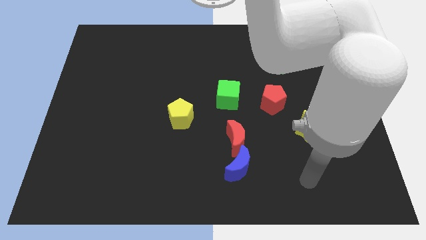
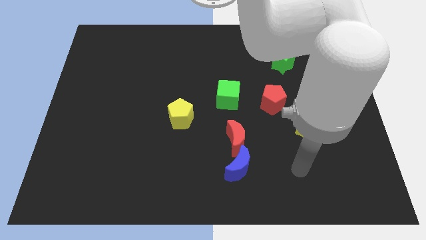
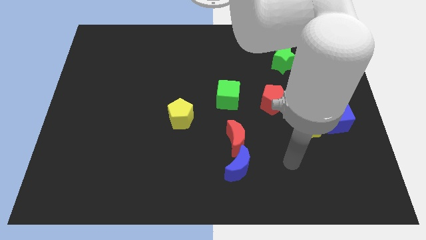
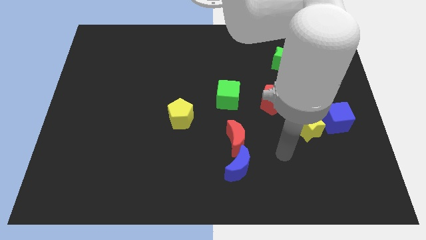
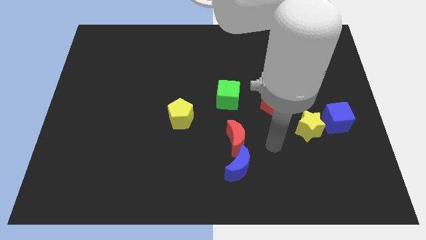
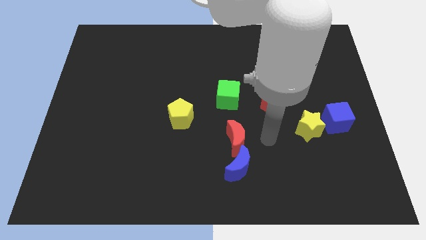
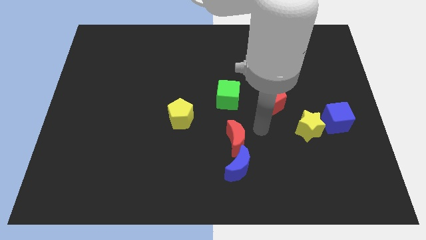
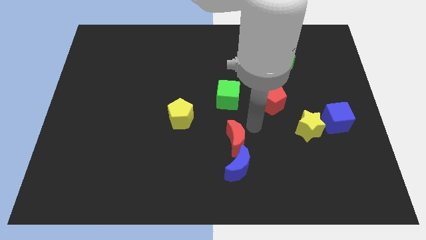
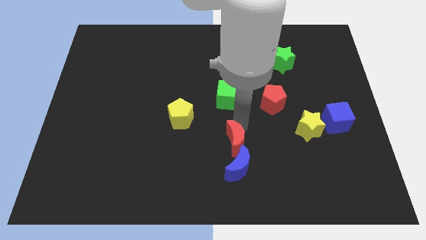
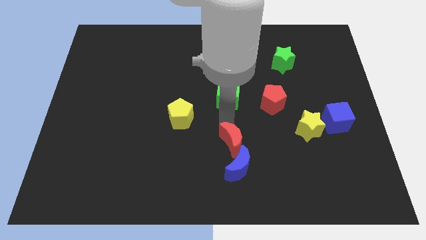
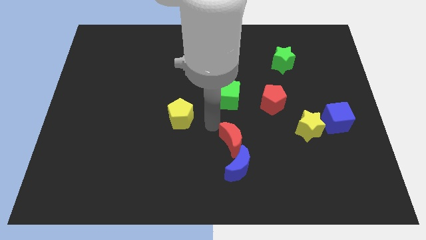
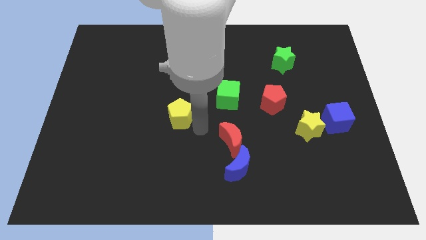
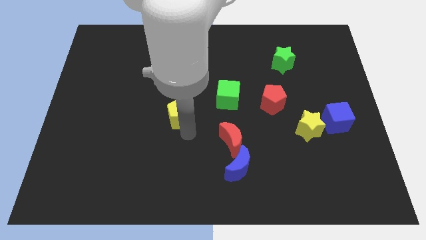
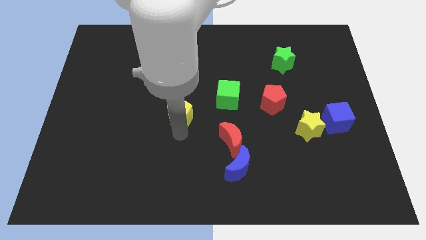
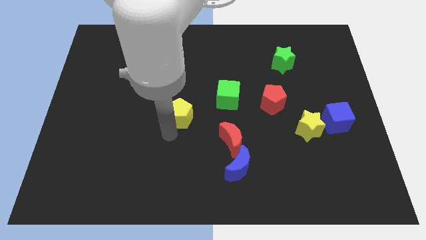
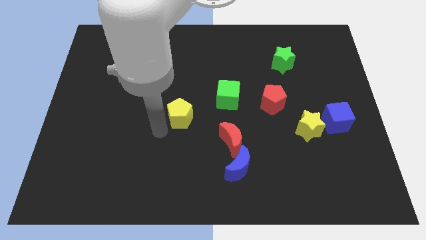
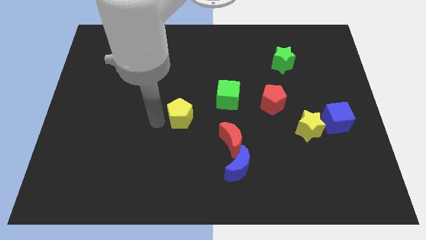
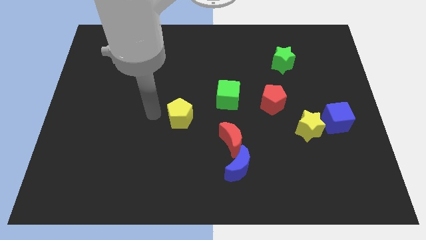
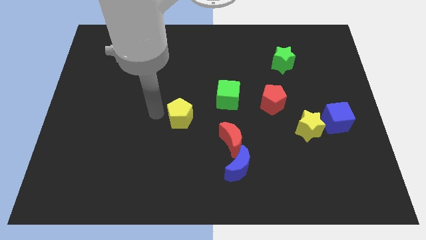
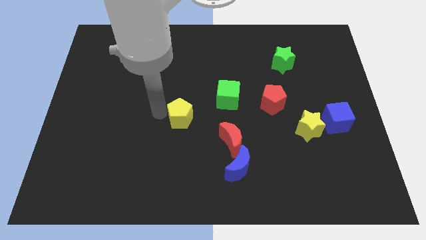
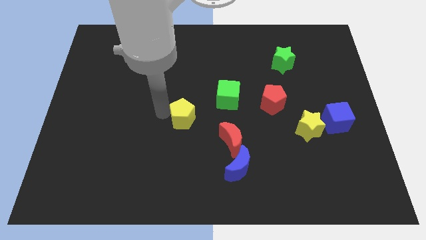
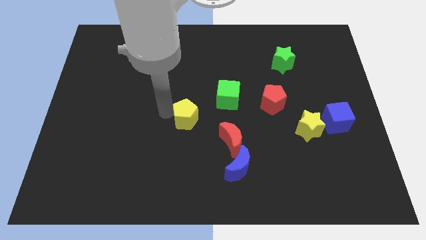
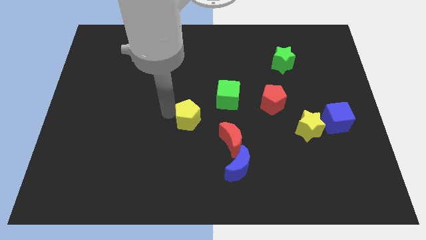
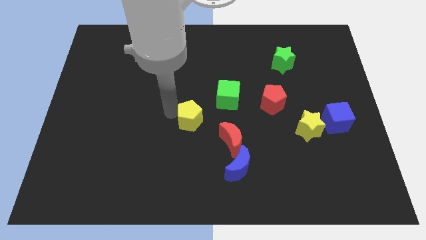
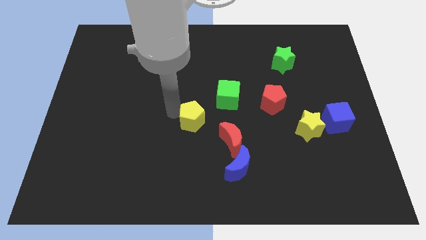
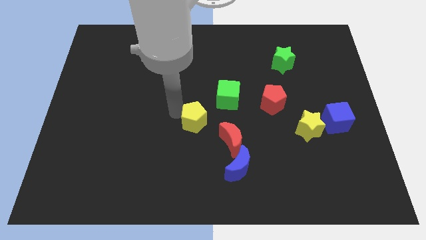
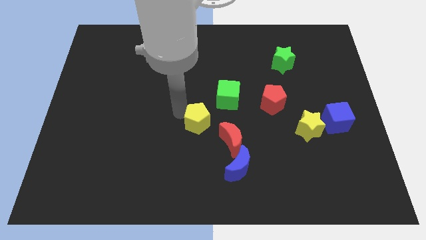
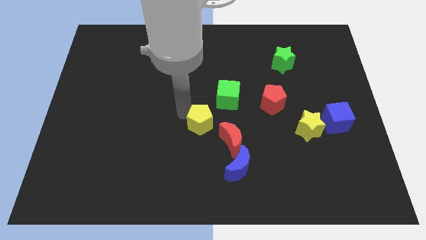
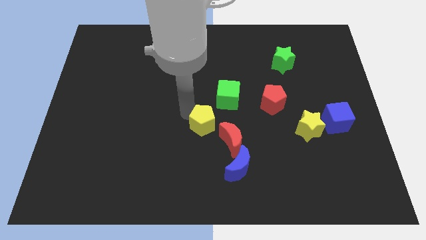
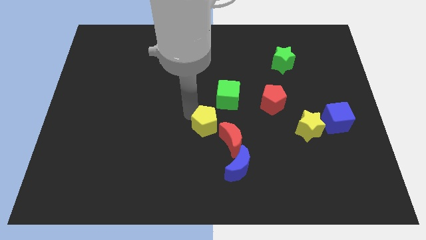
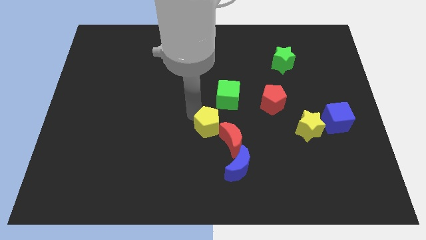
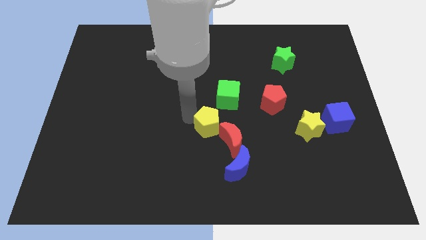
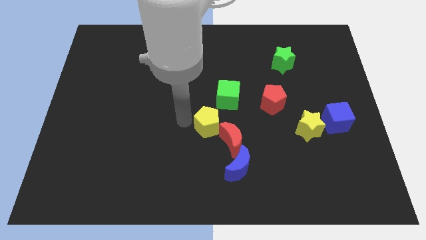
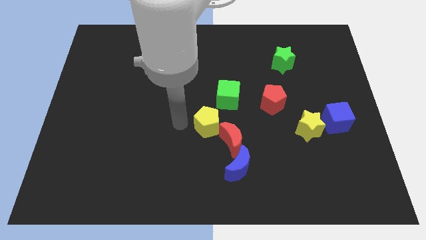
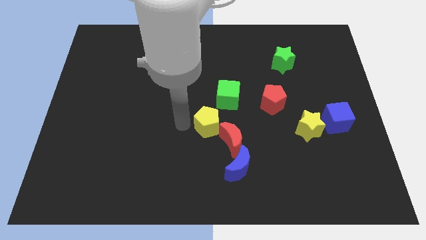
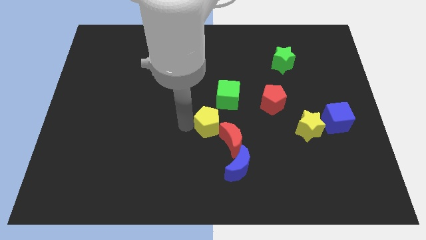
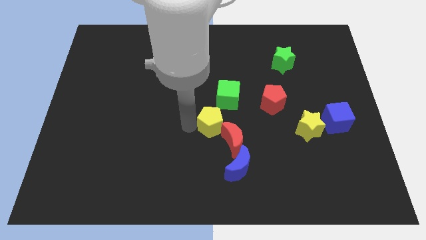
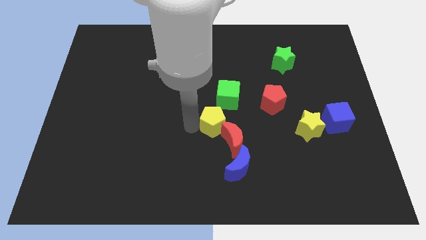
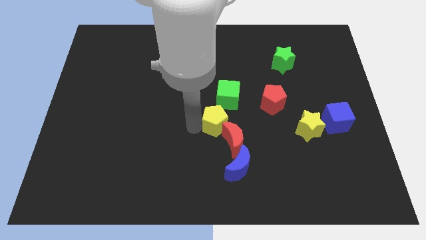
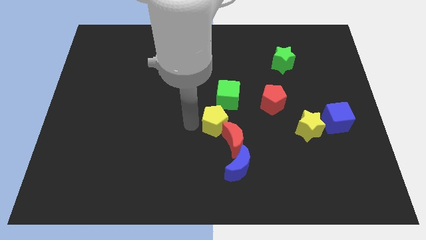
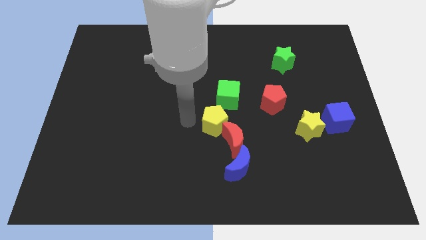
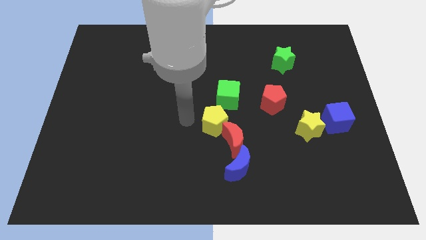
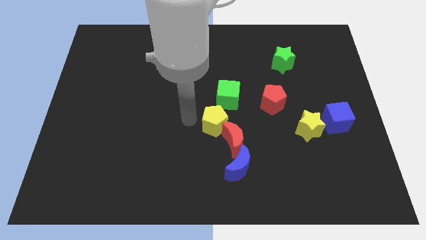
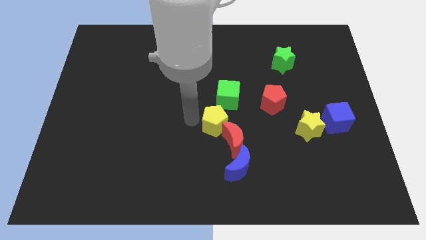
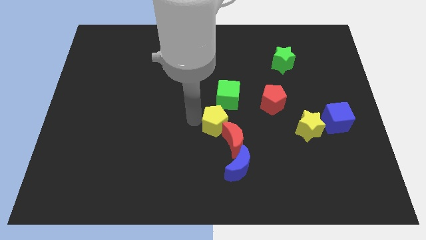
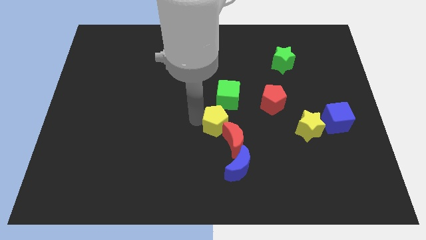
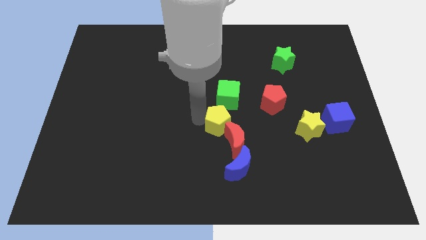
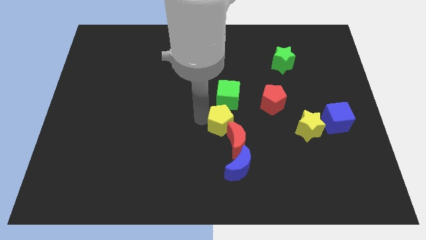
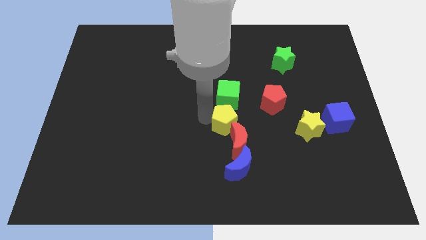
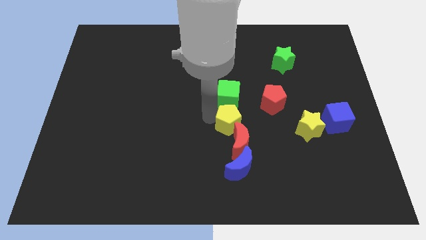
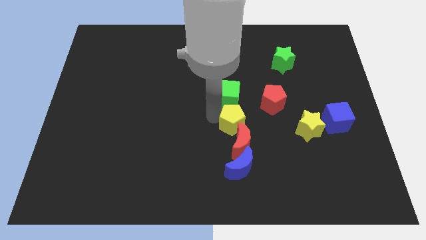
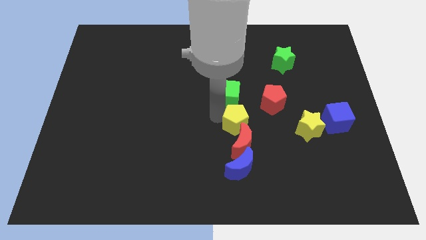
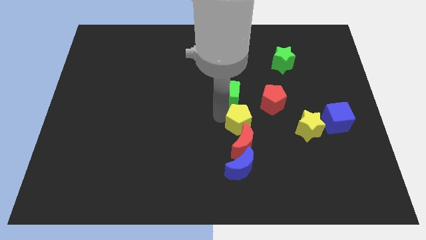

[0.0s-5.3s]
move the yellow pentagon left of the yellow star

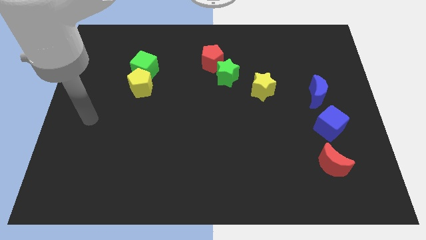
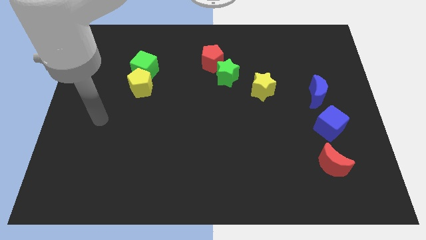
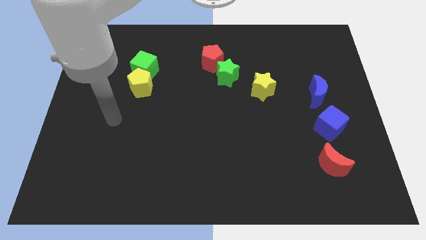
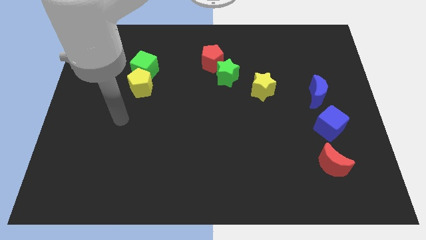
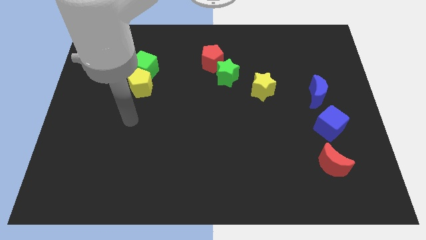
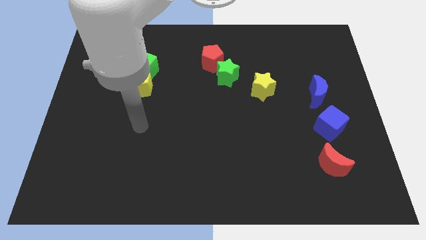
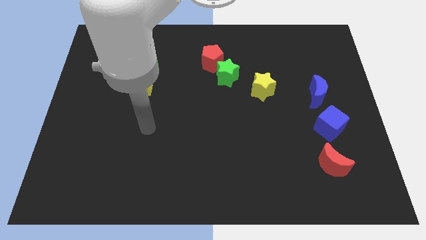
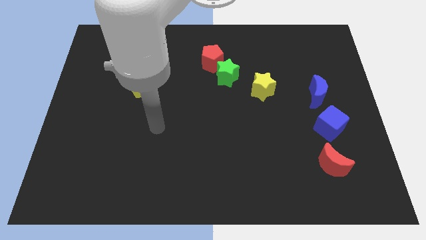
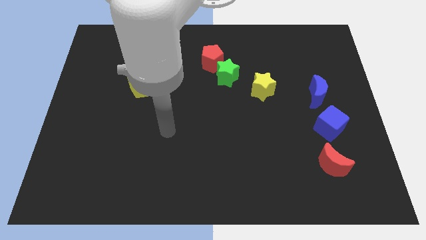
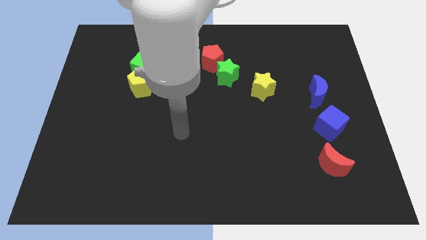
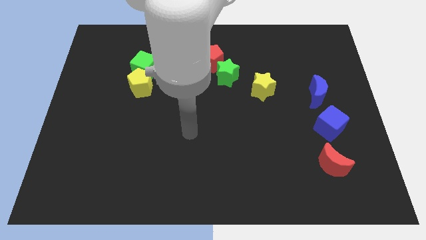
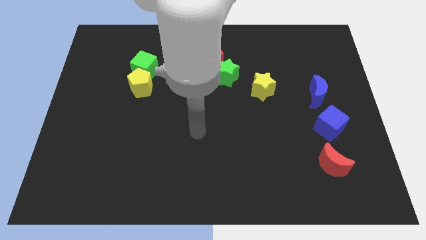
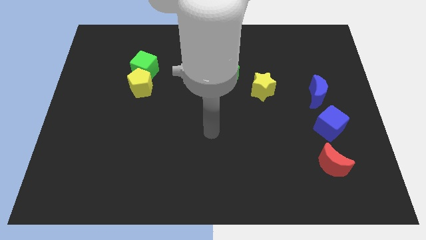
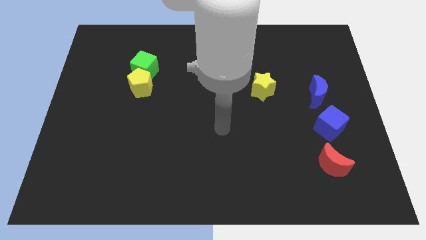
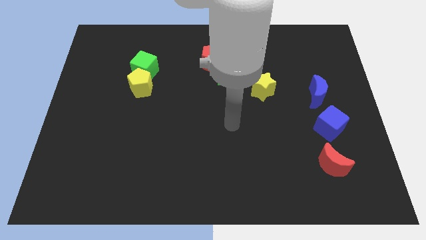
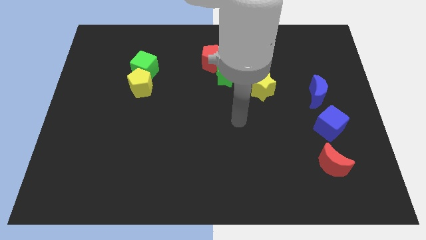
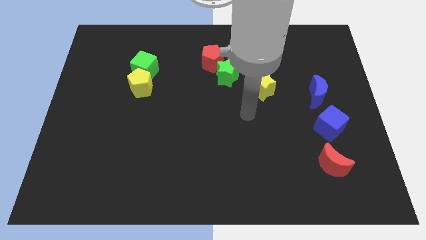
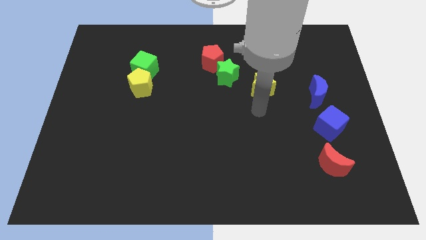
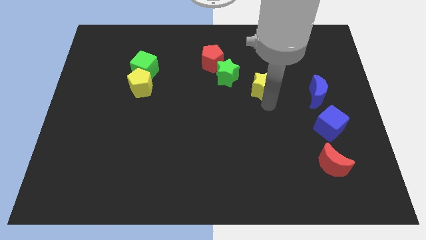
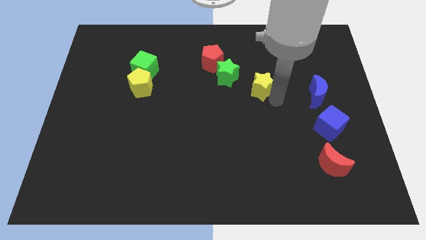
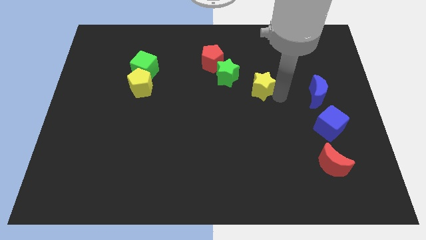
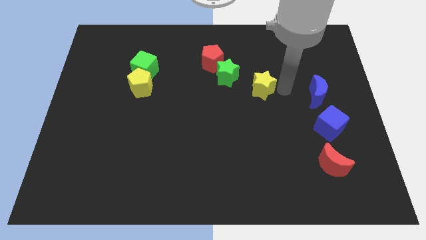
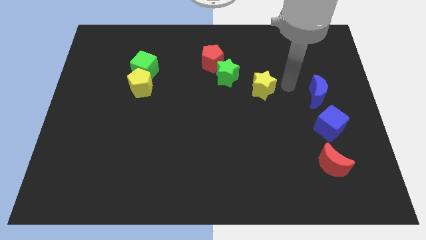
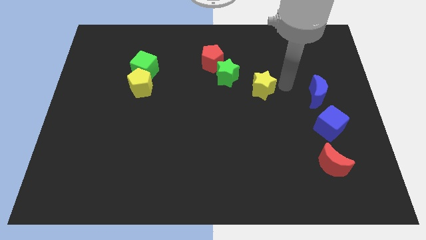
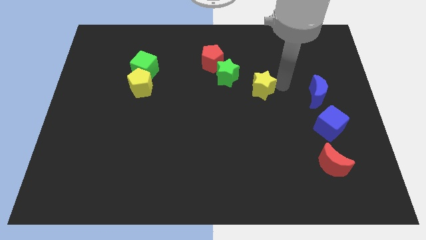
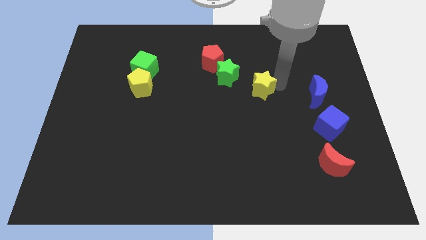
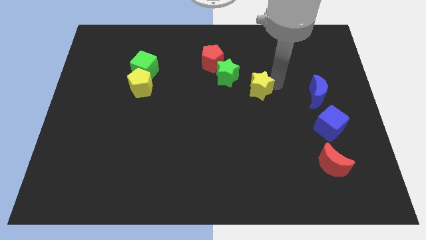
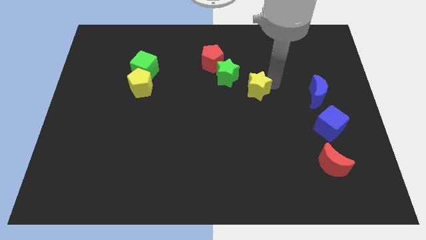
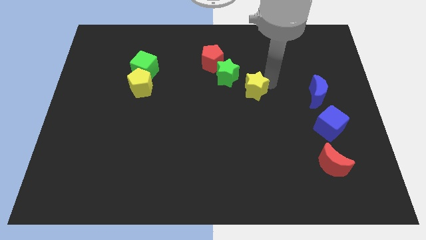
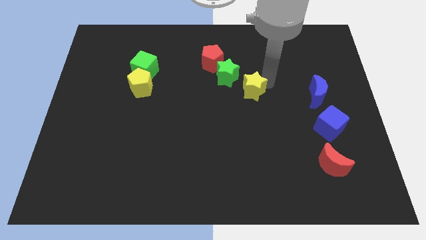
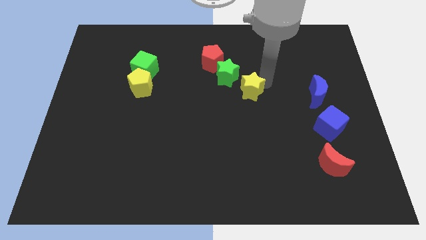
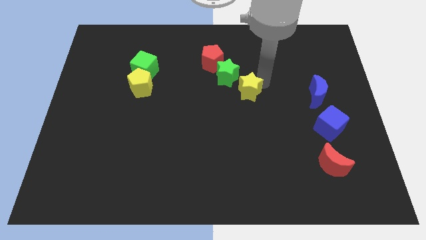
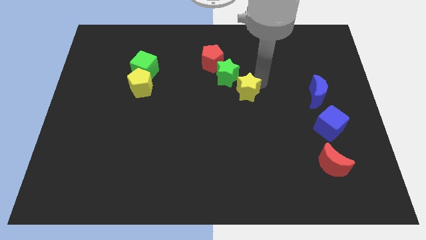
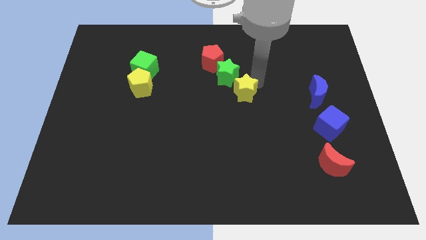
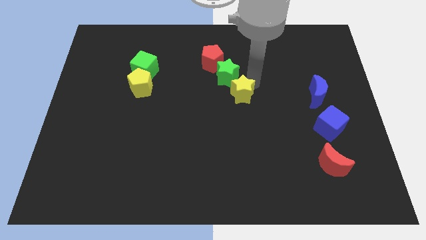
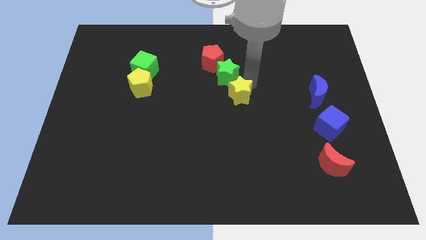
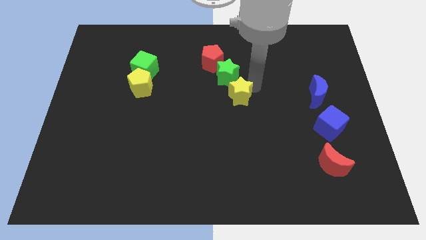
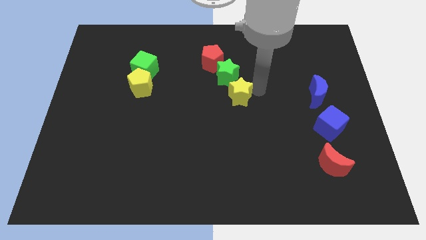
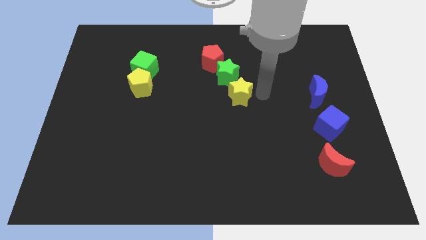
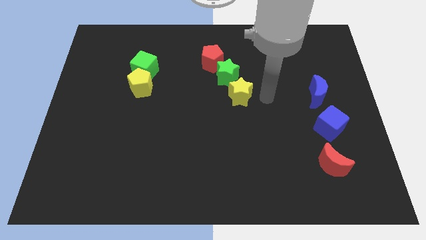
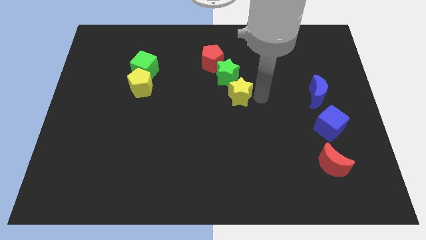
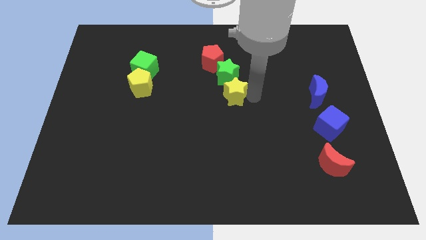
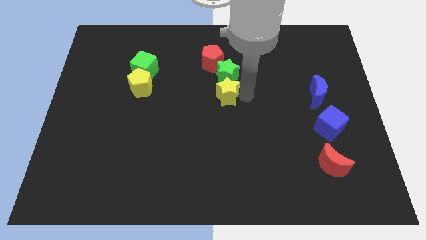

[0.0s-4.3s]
move the yellow star to the bottom of the red pentagon
